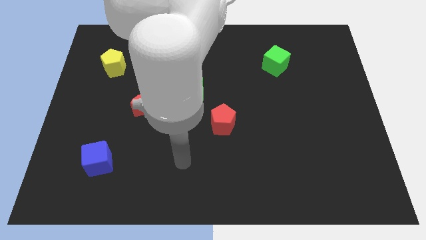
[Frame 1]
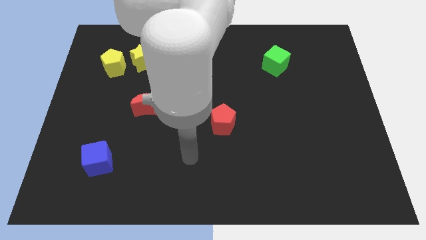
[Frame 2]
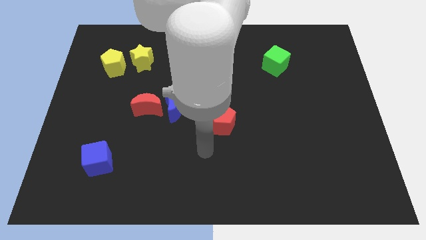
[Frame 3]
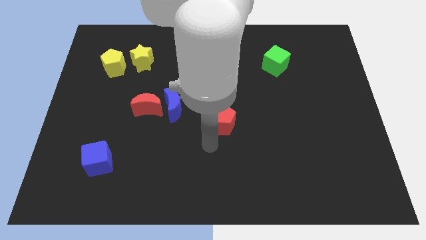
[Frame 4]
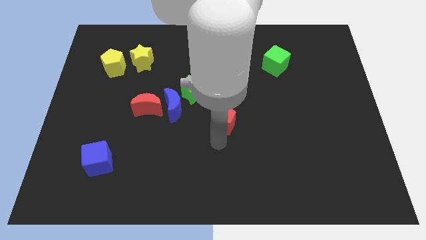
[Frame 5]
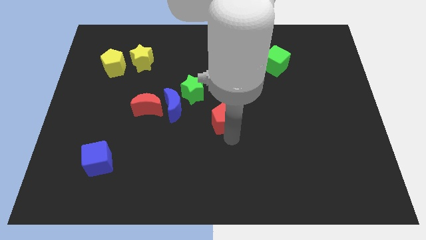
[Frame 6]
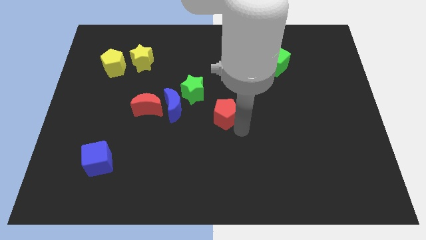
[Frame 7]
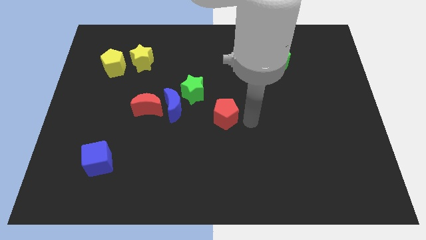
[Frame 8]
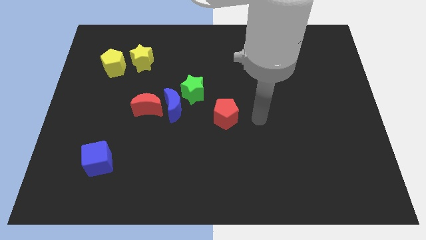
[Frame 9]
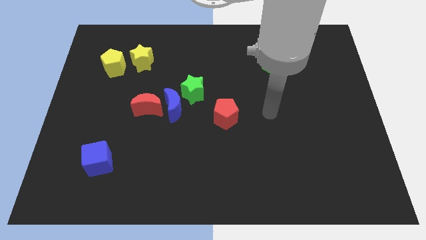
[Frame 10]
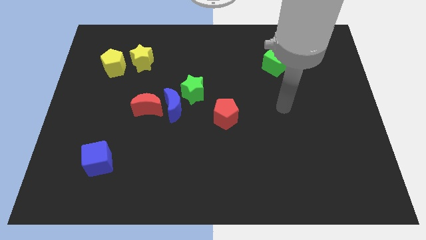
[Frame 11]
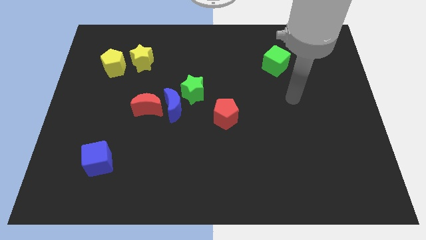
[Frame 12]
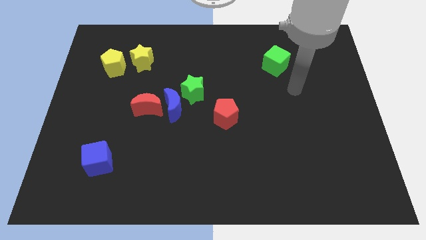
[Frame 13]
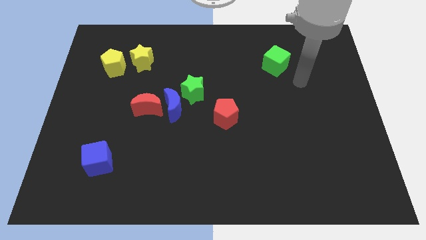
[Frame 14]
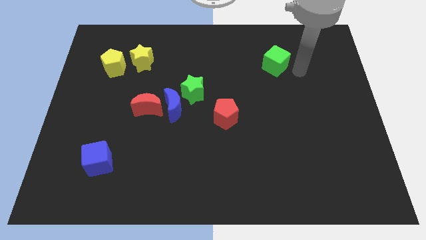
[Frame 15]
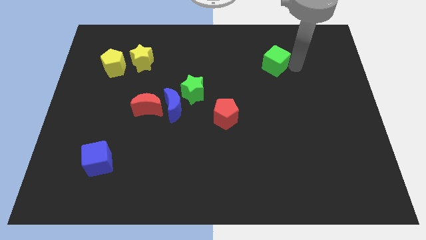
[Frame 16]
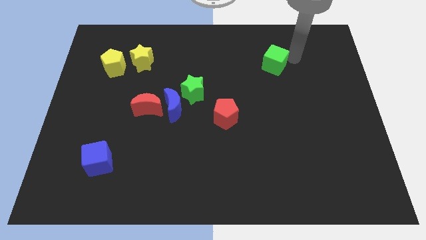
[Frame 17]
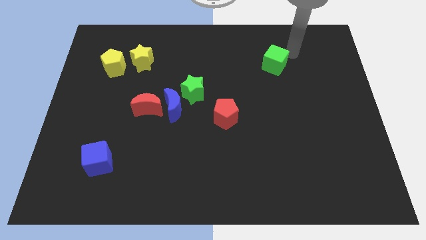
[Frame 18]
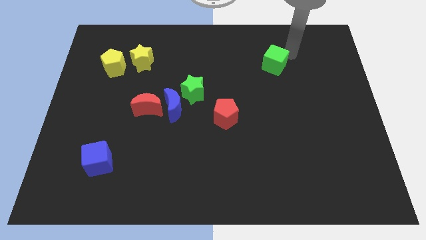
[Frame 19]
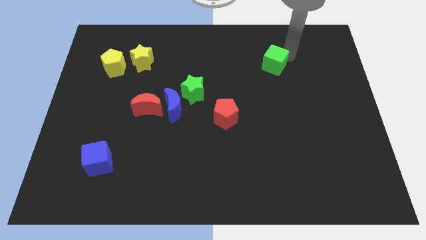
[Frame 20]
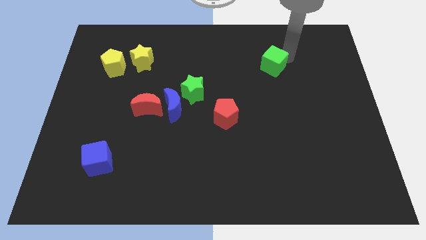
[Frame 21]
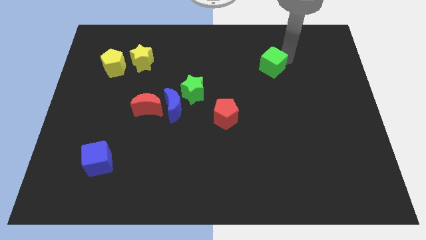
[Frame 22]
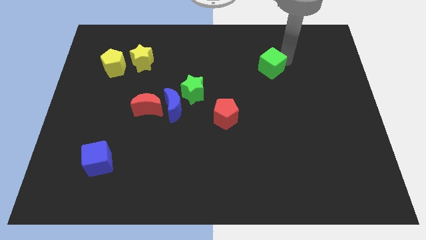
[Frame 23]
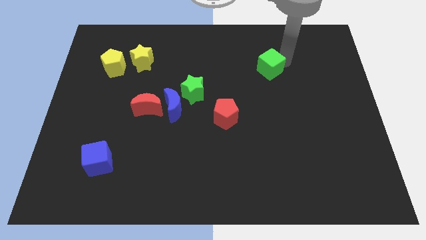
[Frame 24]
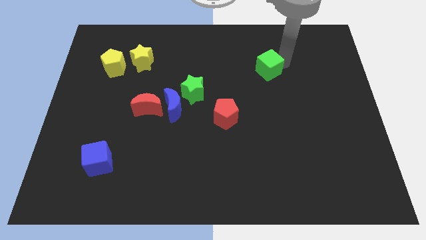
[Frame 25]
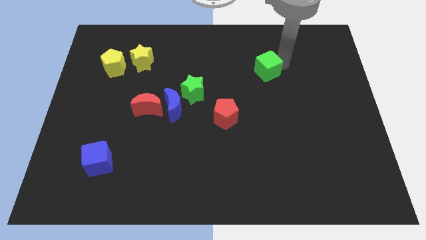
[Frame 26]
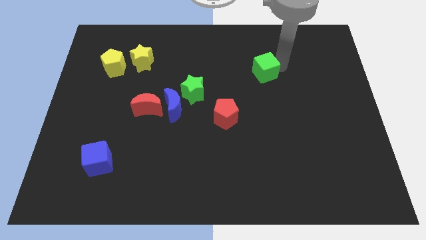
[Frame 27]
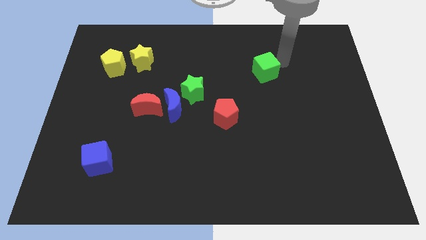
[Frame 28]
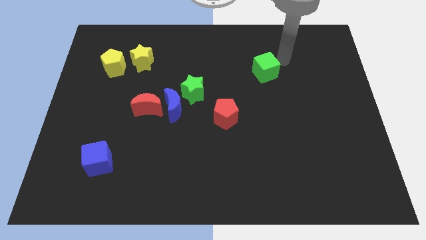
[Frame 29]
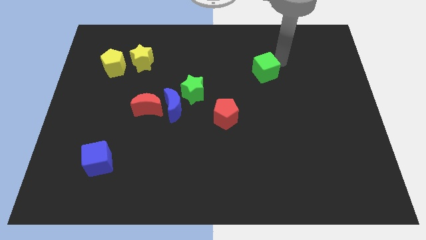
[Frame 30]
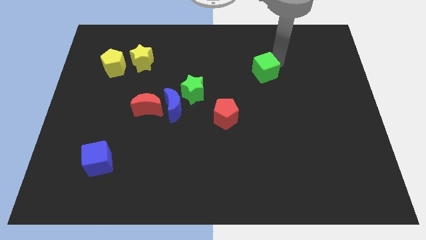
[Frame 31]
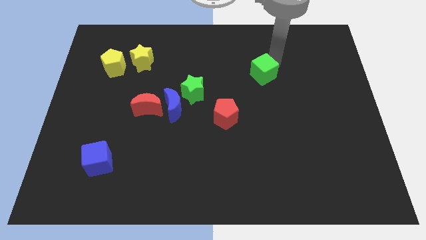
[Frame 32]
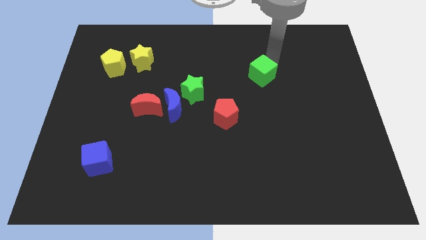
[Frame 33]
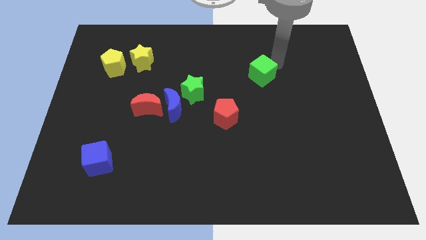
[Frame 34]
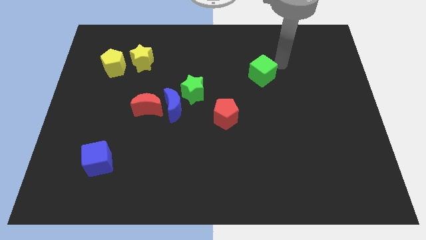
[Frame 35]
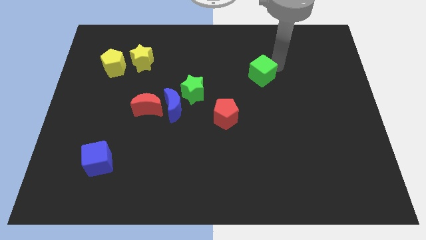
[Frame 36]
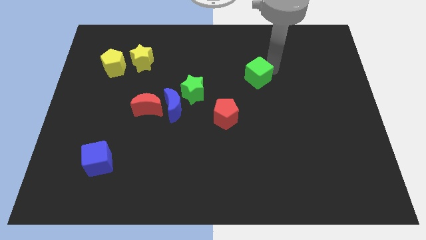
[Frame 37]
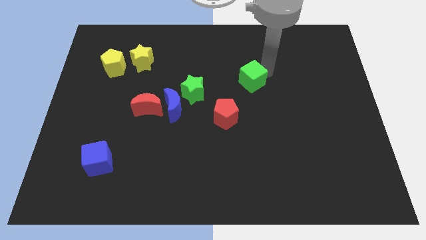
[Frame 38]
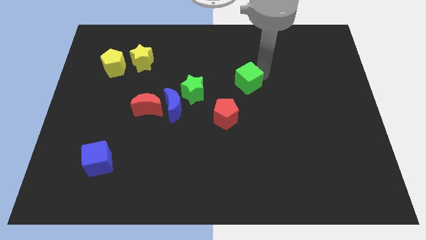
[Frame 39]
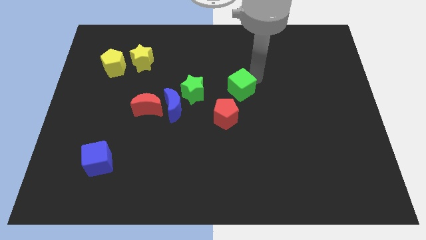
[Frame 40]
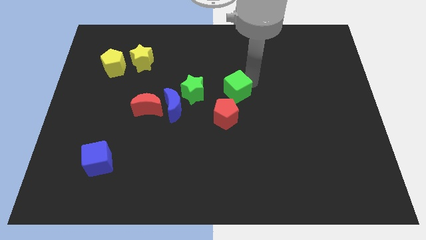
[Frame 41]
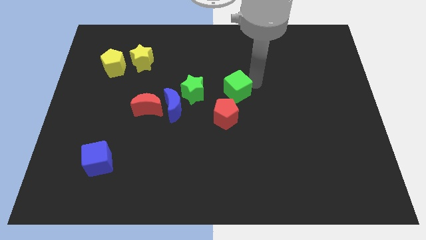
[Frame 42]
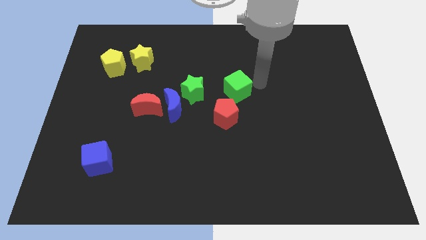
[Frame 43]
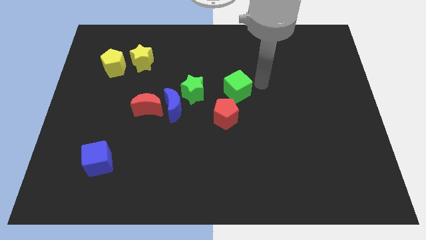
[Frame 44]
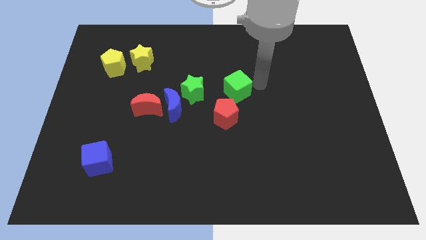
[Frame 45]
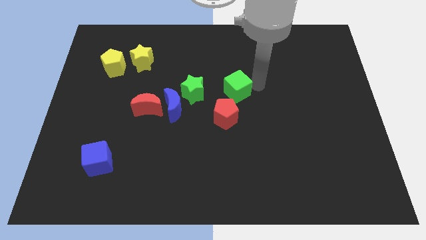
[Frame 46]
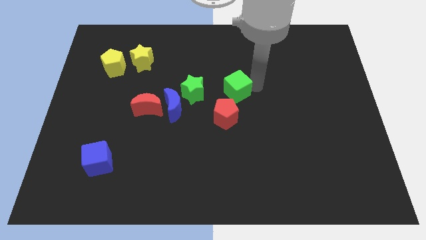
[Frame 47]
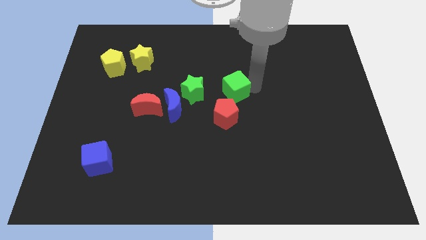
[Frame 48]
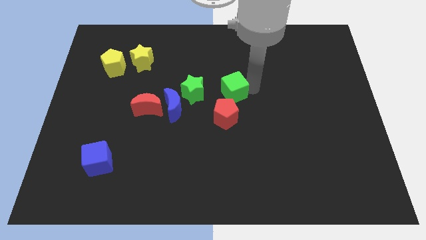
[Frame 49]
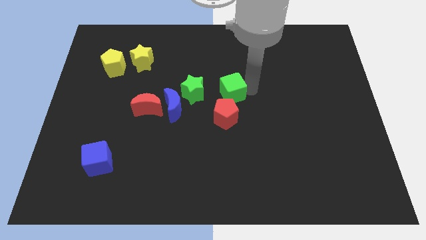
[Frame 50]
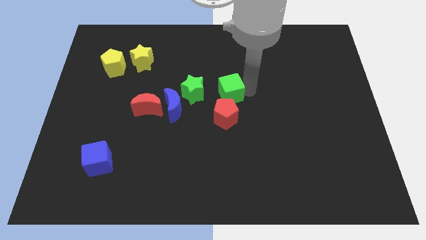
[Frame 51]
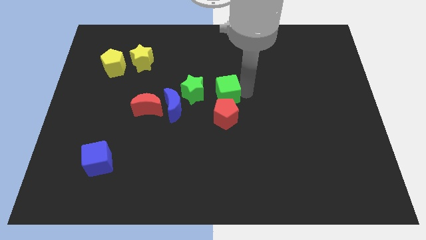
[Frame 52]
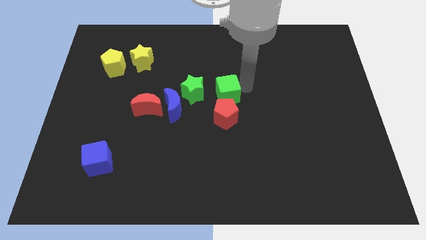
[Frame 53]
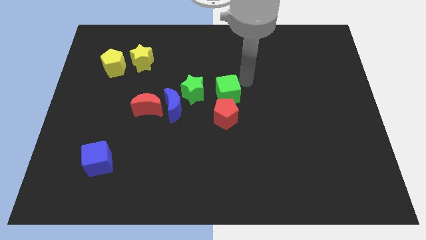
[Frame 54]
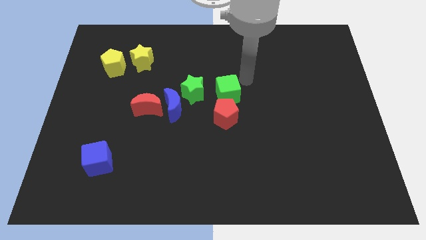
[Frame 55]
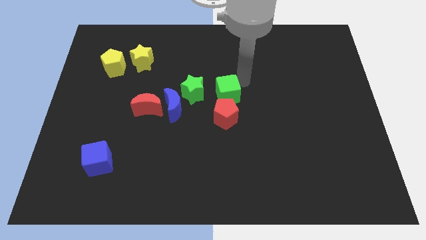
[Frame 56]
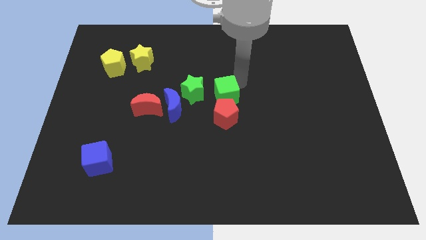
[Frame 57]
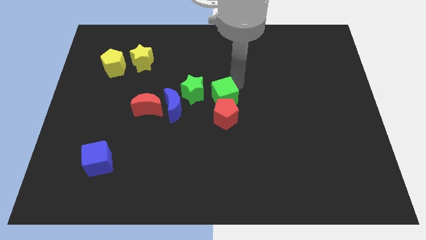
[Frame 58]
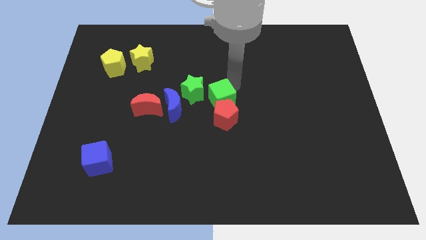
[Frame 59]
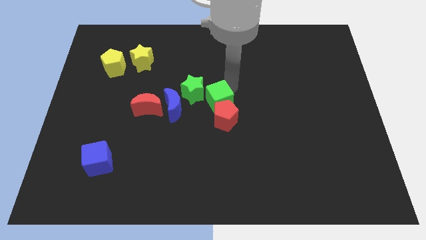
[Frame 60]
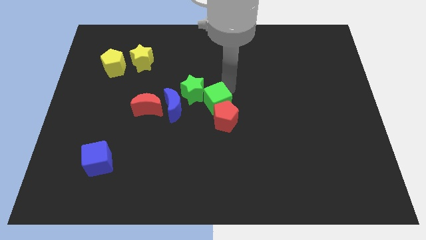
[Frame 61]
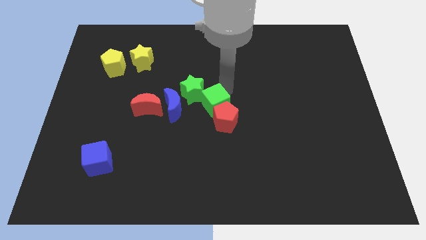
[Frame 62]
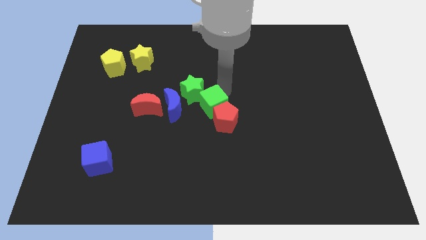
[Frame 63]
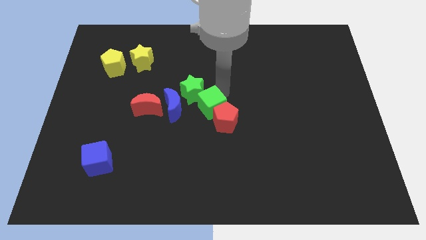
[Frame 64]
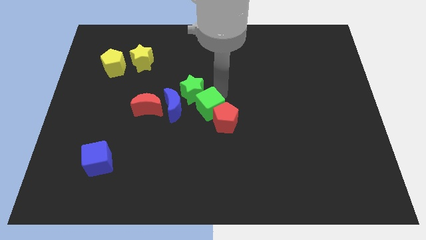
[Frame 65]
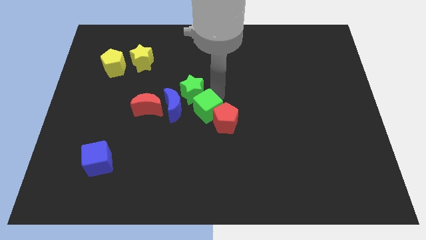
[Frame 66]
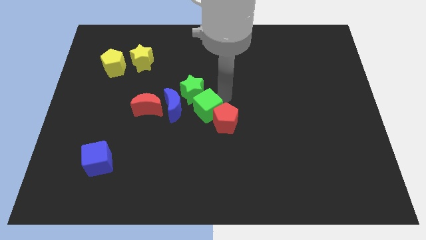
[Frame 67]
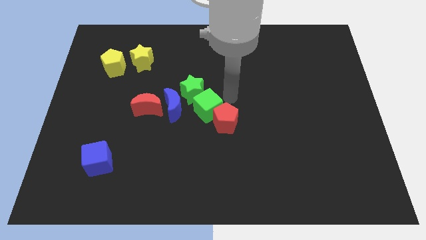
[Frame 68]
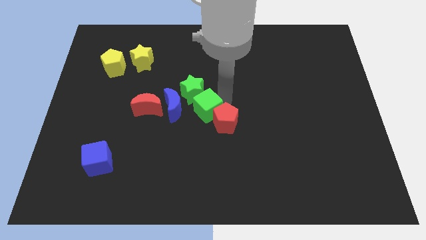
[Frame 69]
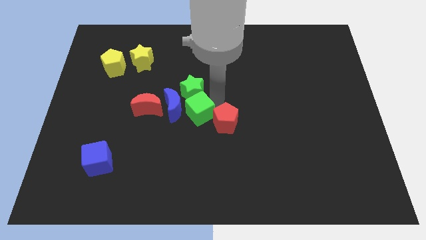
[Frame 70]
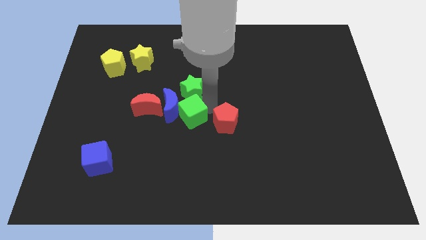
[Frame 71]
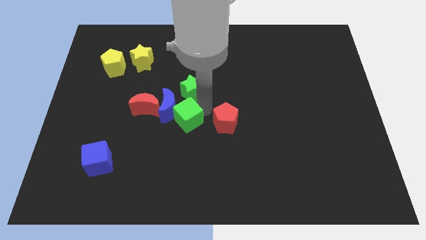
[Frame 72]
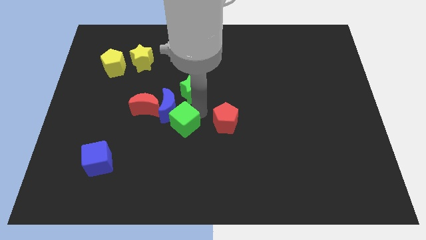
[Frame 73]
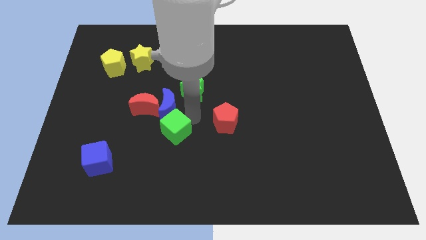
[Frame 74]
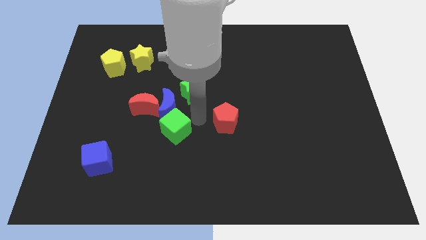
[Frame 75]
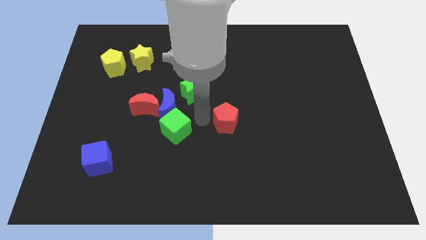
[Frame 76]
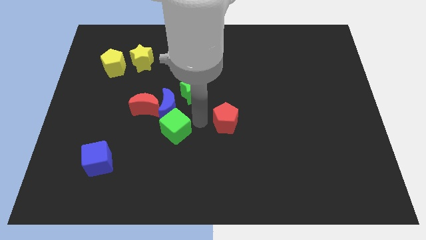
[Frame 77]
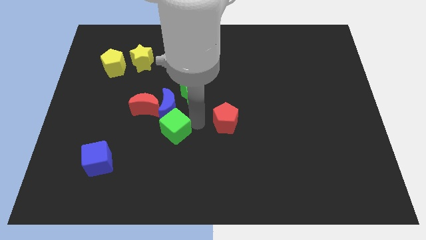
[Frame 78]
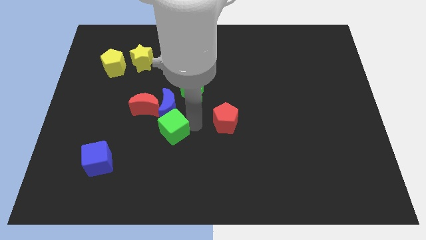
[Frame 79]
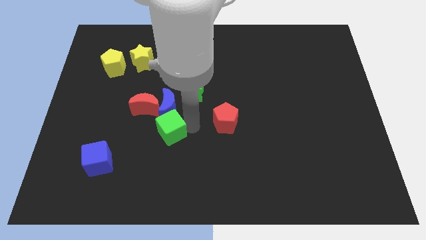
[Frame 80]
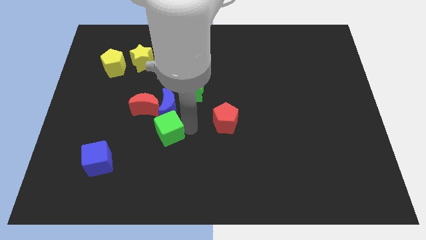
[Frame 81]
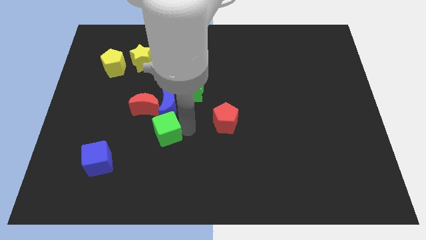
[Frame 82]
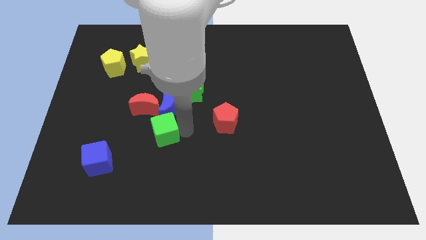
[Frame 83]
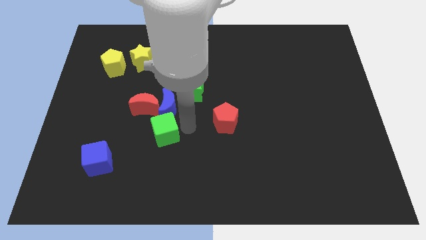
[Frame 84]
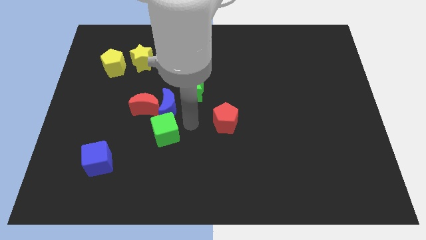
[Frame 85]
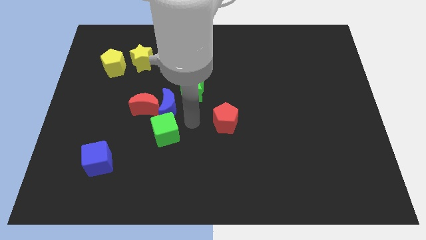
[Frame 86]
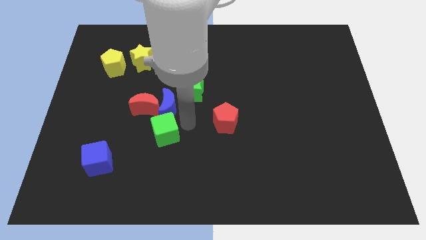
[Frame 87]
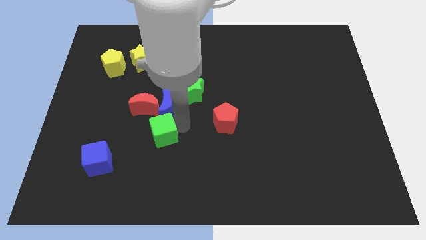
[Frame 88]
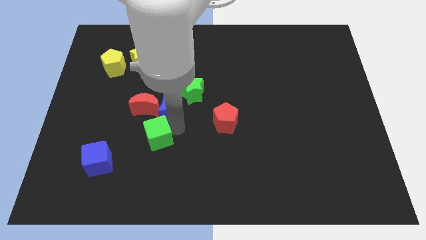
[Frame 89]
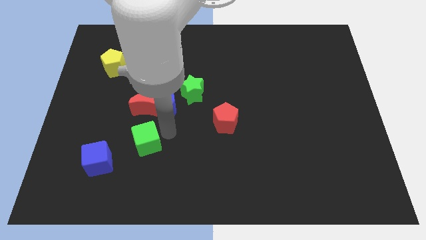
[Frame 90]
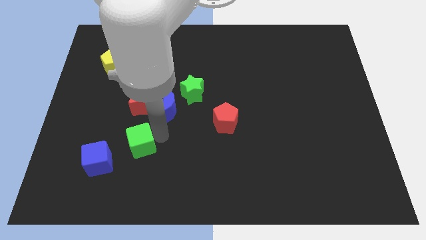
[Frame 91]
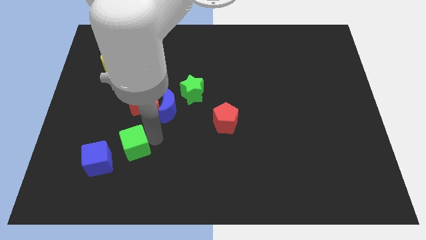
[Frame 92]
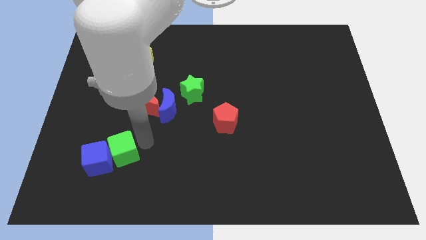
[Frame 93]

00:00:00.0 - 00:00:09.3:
push the green cube next to the blue cube
